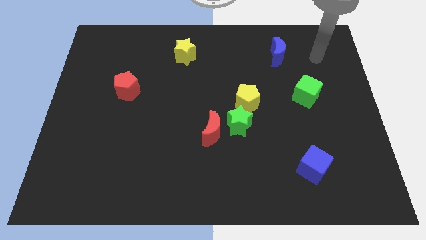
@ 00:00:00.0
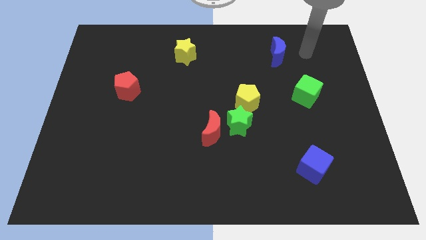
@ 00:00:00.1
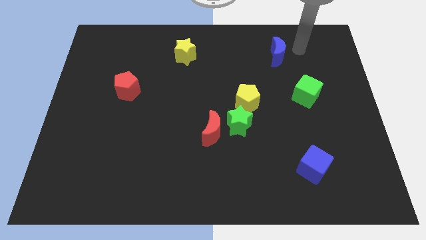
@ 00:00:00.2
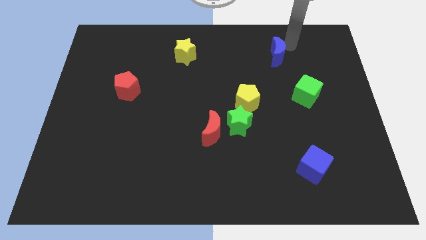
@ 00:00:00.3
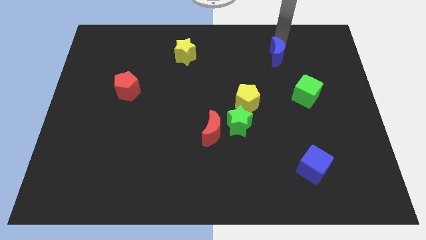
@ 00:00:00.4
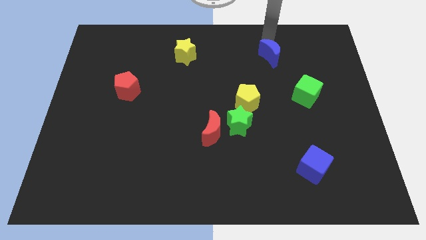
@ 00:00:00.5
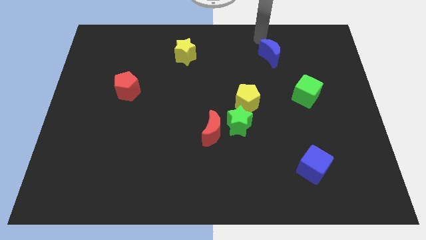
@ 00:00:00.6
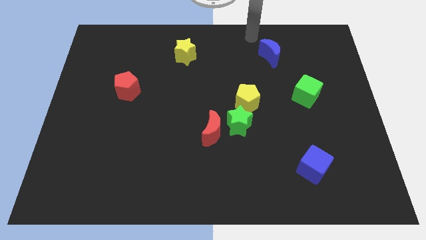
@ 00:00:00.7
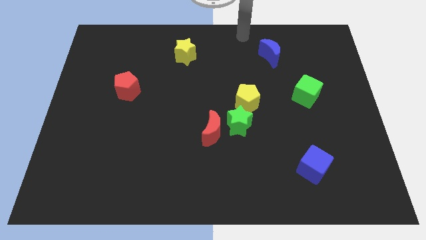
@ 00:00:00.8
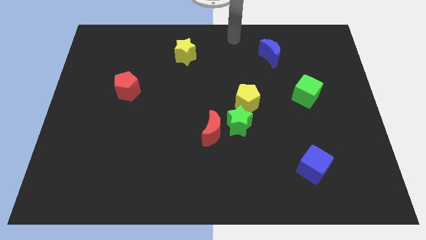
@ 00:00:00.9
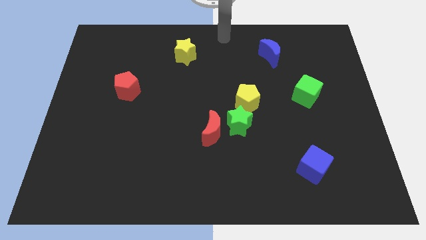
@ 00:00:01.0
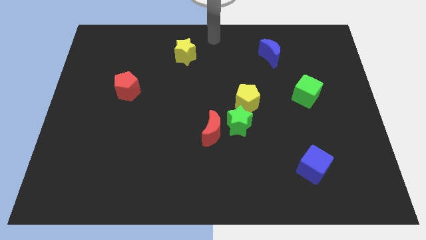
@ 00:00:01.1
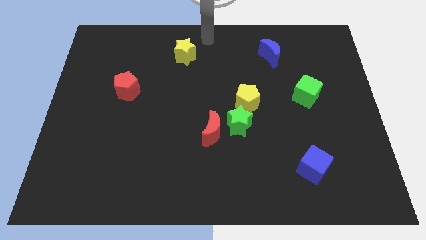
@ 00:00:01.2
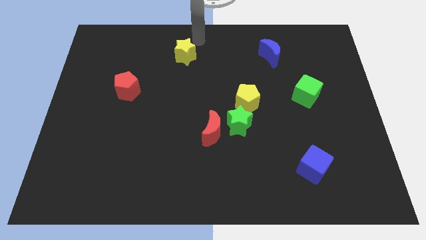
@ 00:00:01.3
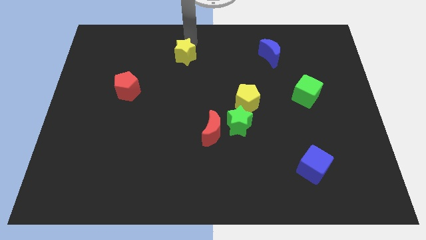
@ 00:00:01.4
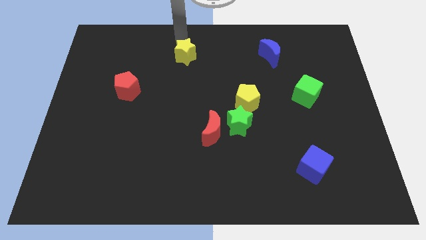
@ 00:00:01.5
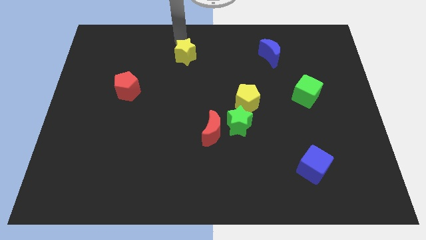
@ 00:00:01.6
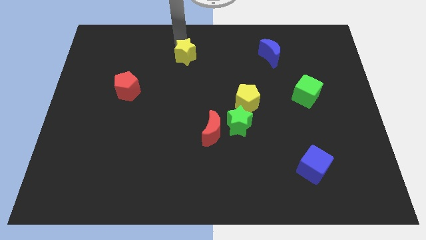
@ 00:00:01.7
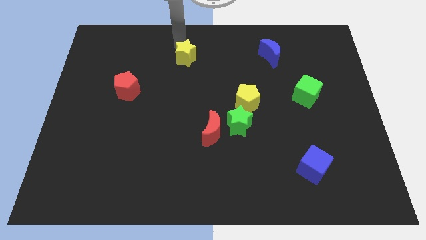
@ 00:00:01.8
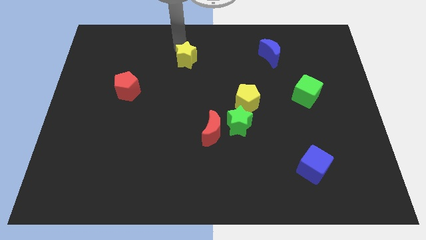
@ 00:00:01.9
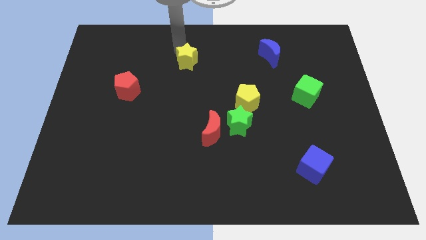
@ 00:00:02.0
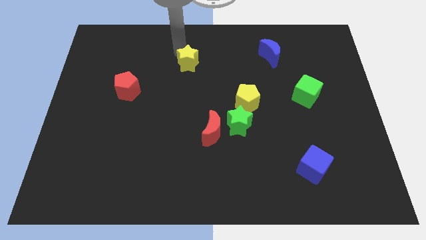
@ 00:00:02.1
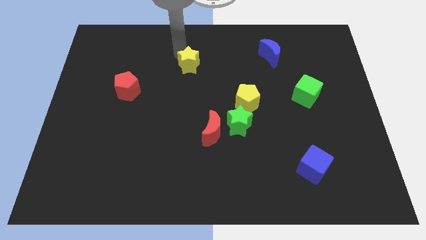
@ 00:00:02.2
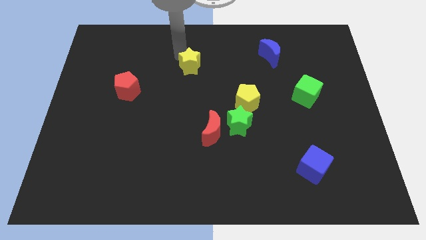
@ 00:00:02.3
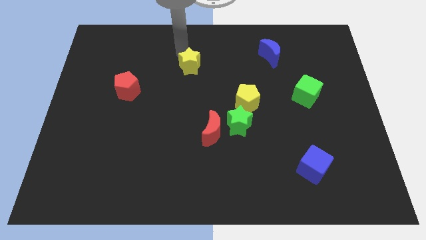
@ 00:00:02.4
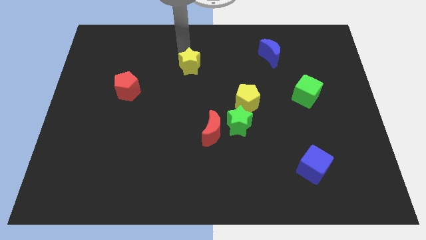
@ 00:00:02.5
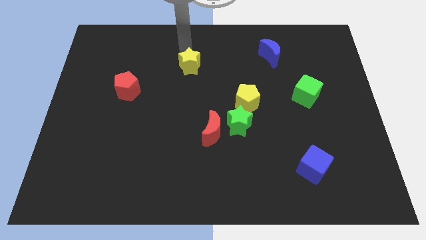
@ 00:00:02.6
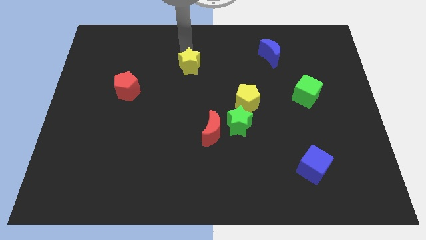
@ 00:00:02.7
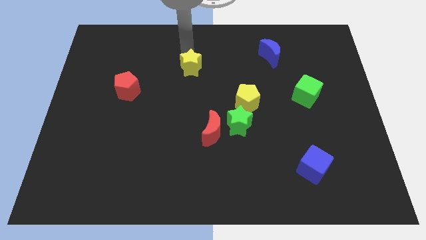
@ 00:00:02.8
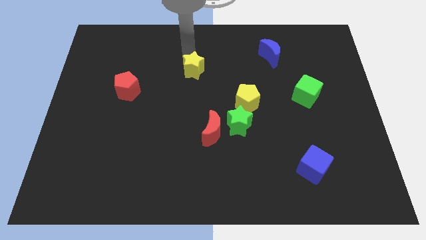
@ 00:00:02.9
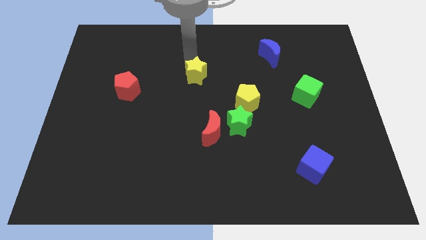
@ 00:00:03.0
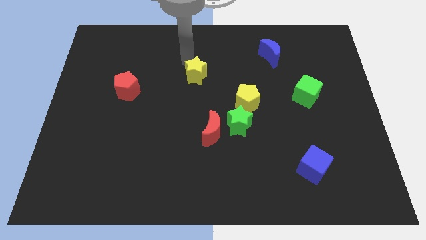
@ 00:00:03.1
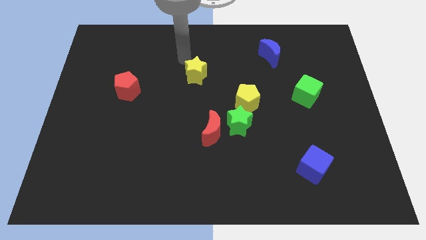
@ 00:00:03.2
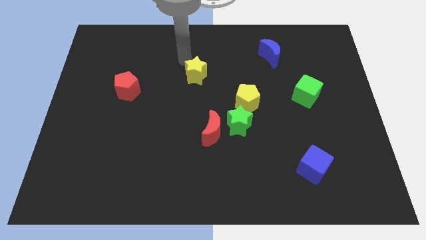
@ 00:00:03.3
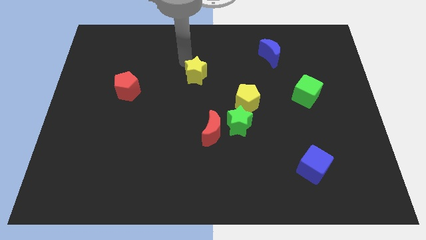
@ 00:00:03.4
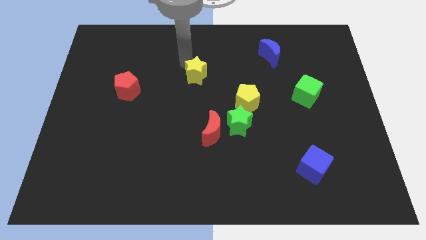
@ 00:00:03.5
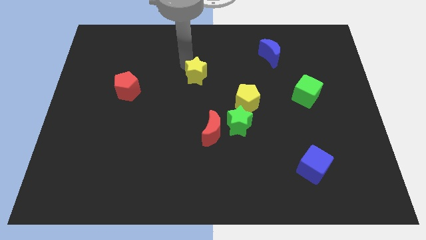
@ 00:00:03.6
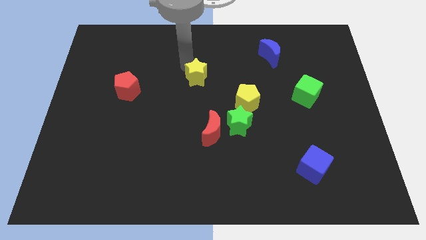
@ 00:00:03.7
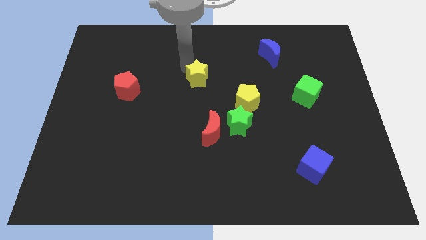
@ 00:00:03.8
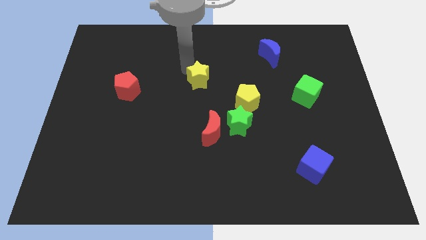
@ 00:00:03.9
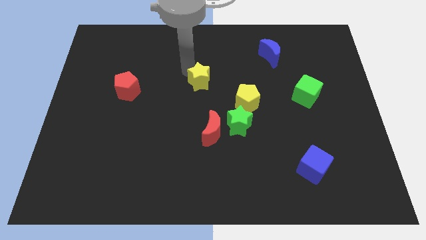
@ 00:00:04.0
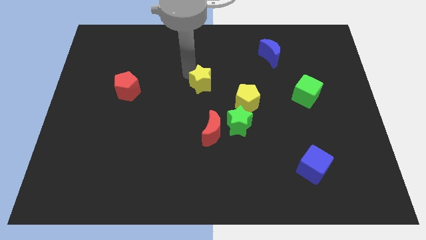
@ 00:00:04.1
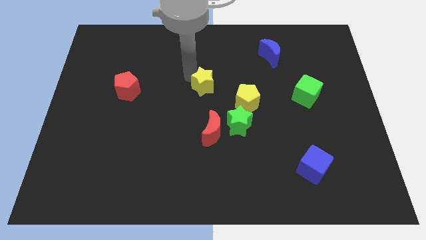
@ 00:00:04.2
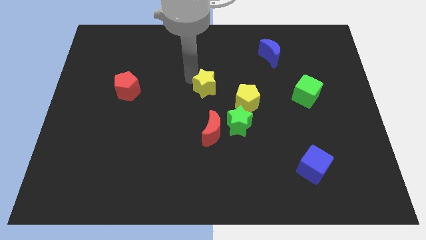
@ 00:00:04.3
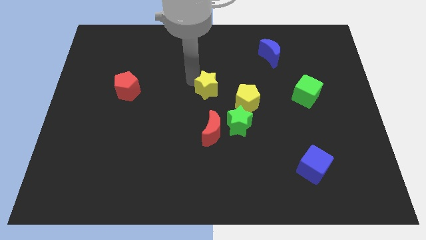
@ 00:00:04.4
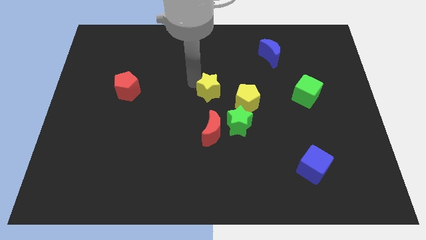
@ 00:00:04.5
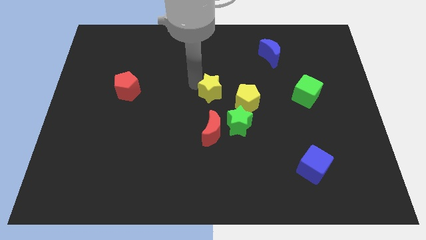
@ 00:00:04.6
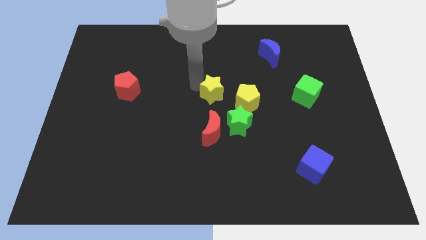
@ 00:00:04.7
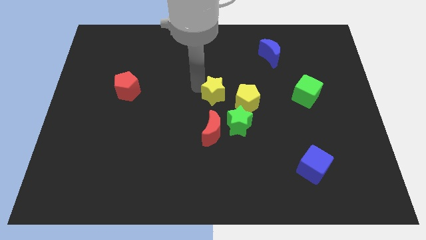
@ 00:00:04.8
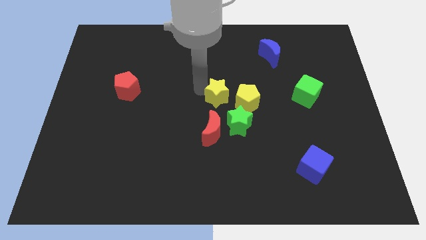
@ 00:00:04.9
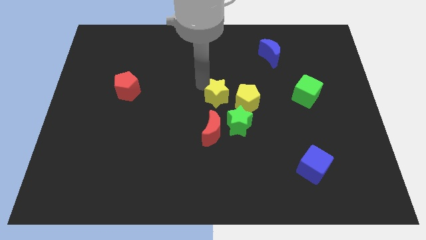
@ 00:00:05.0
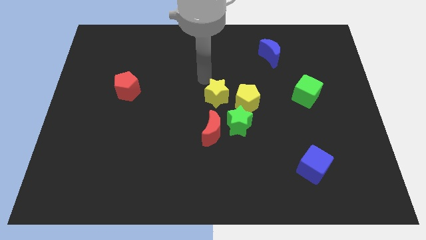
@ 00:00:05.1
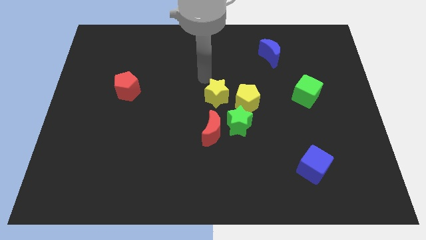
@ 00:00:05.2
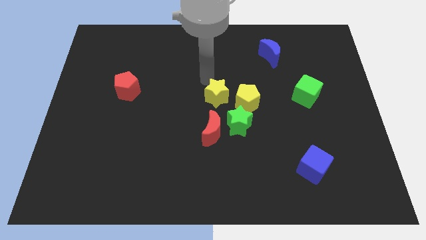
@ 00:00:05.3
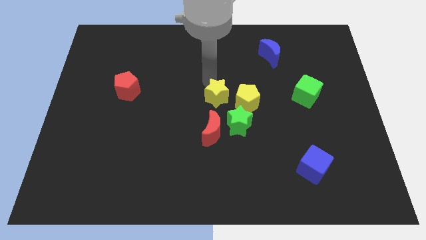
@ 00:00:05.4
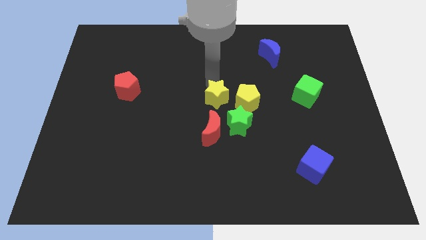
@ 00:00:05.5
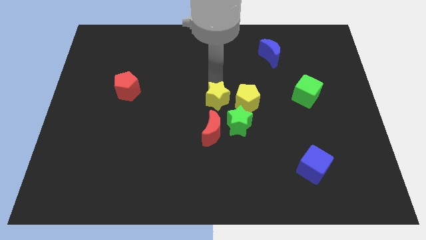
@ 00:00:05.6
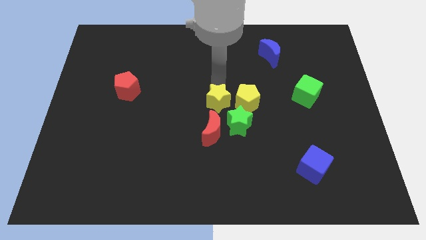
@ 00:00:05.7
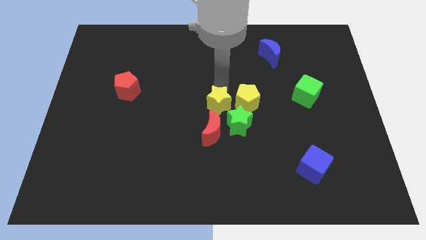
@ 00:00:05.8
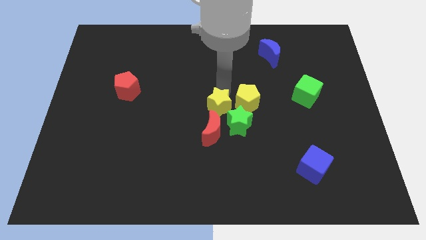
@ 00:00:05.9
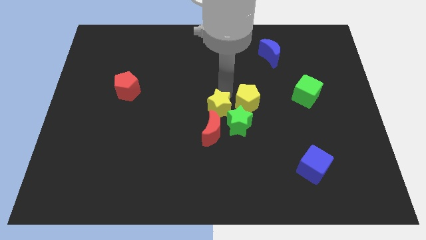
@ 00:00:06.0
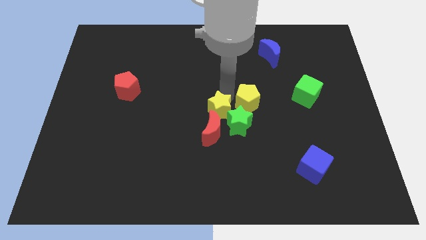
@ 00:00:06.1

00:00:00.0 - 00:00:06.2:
move the yellow star towards the green star

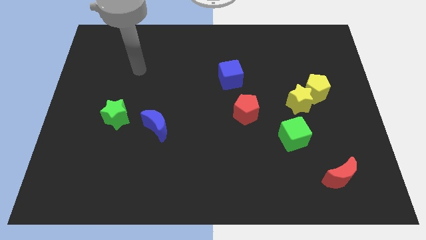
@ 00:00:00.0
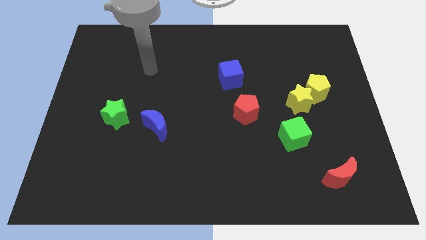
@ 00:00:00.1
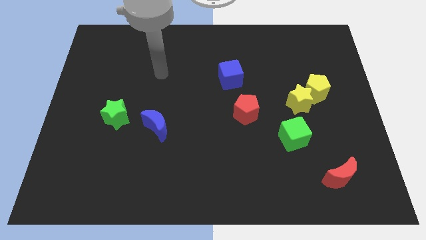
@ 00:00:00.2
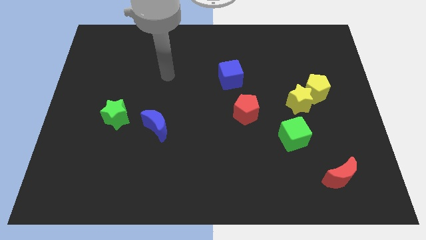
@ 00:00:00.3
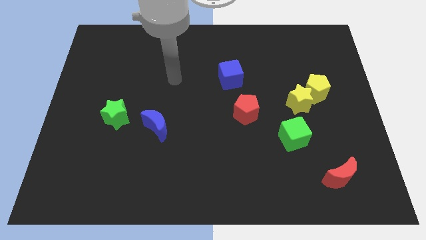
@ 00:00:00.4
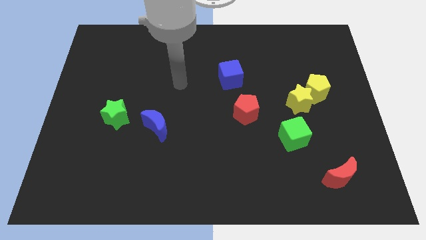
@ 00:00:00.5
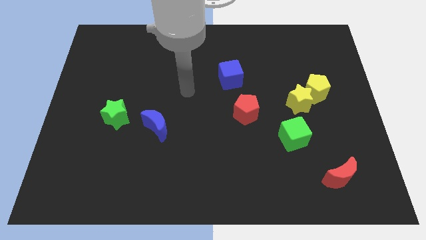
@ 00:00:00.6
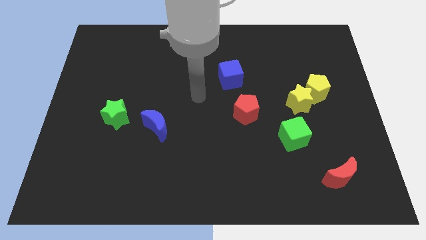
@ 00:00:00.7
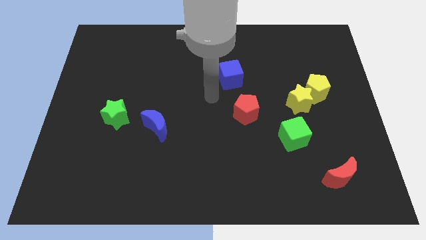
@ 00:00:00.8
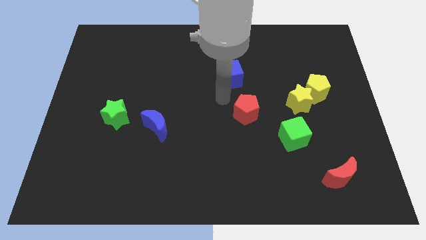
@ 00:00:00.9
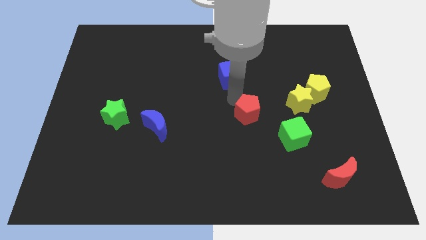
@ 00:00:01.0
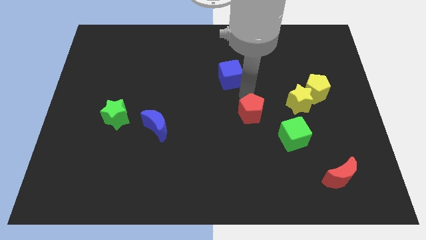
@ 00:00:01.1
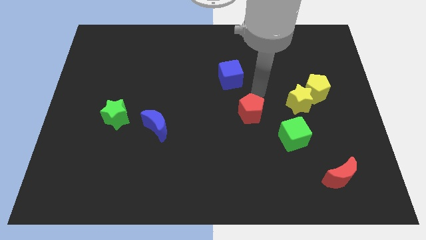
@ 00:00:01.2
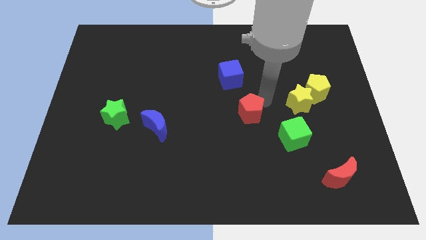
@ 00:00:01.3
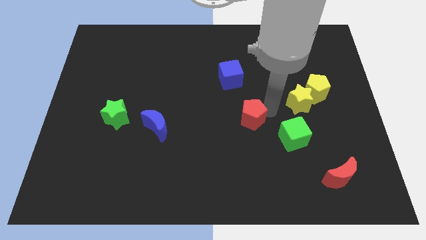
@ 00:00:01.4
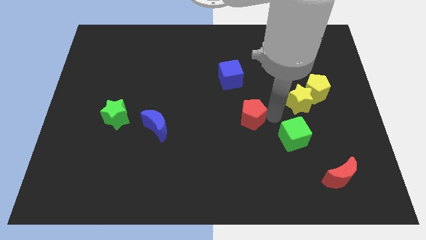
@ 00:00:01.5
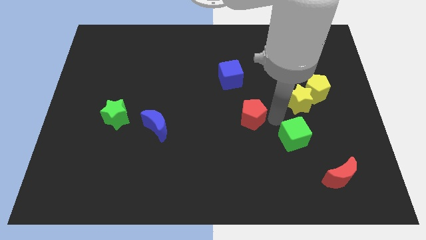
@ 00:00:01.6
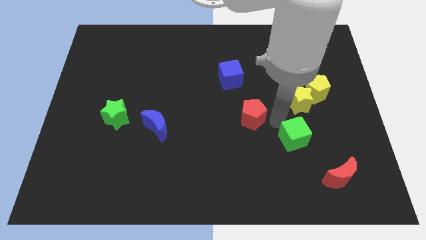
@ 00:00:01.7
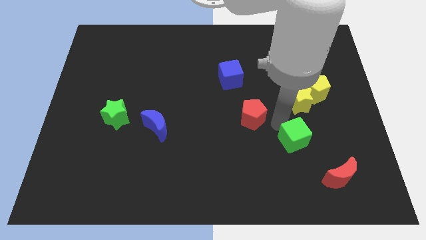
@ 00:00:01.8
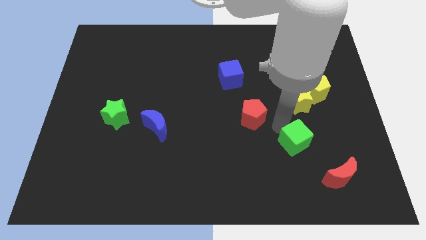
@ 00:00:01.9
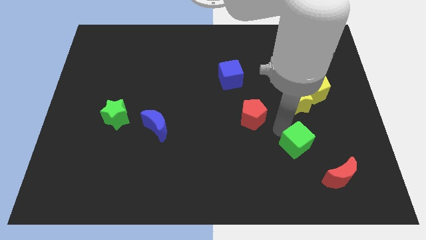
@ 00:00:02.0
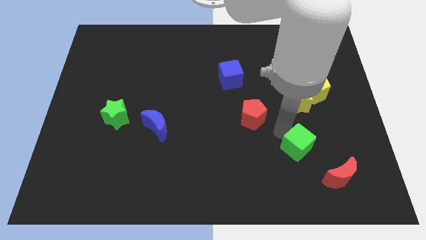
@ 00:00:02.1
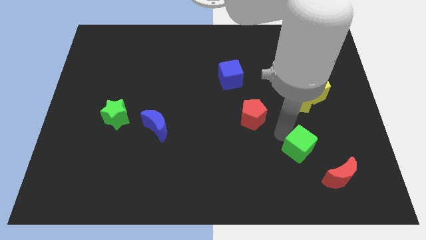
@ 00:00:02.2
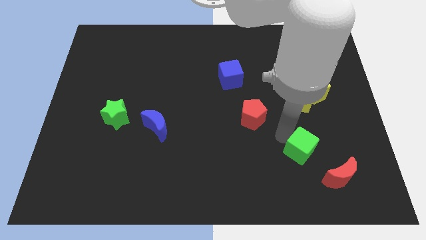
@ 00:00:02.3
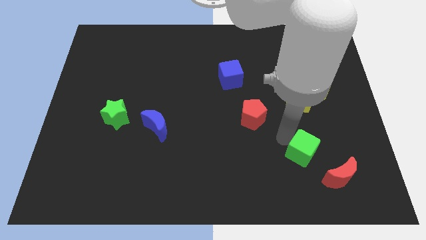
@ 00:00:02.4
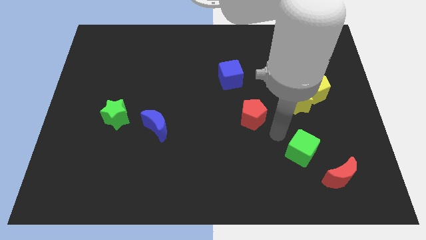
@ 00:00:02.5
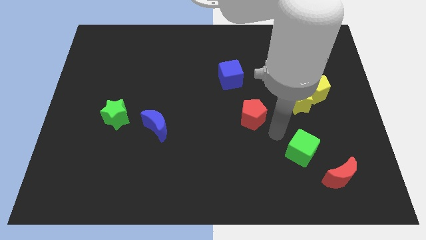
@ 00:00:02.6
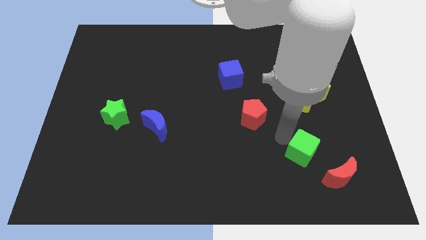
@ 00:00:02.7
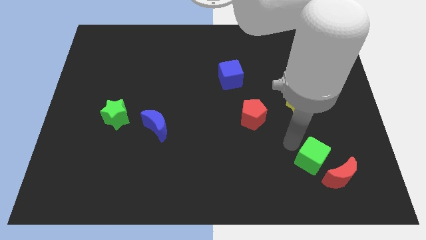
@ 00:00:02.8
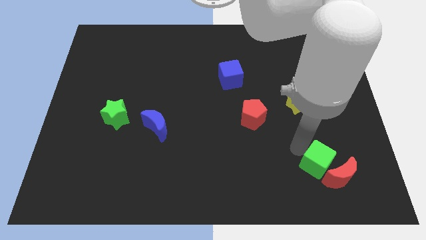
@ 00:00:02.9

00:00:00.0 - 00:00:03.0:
slide the green cube to the red moon
